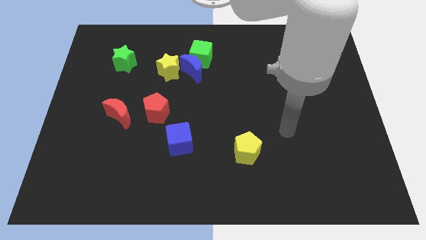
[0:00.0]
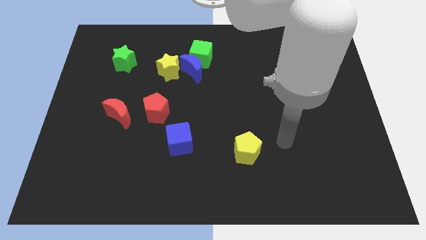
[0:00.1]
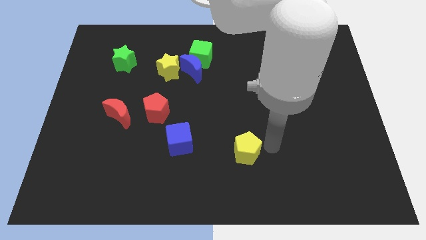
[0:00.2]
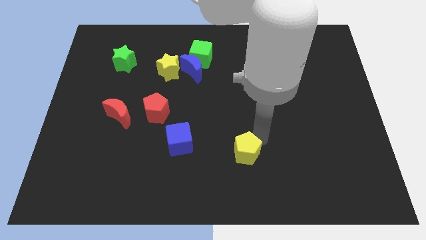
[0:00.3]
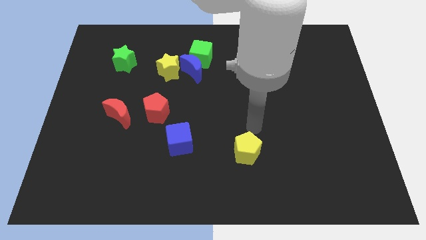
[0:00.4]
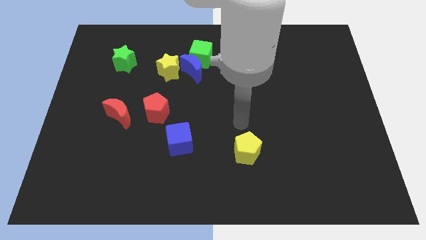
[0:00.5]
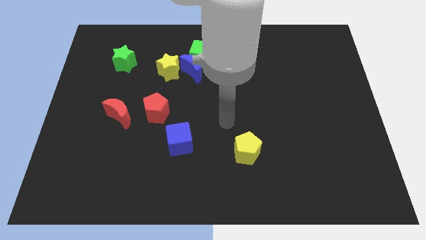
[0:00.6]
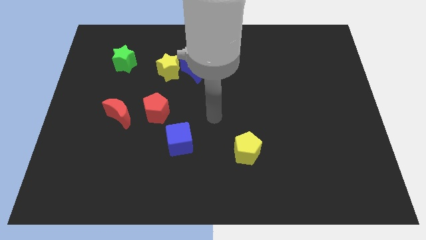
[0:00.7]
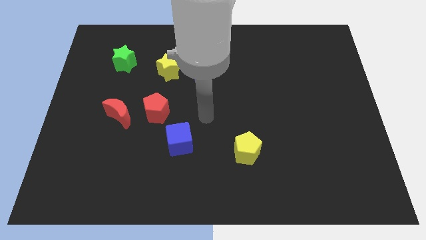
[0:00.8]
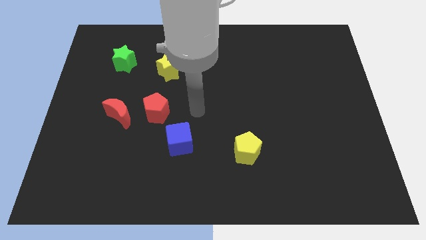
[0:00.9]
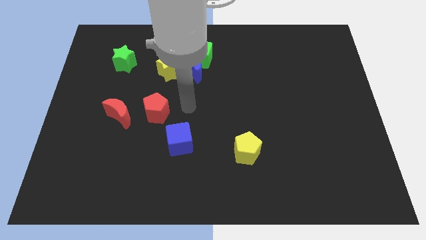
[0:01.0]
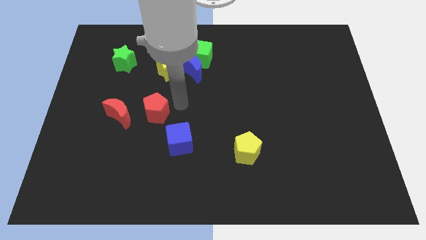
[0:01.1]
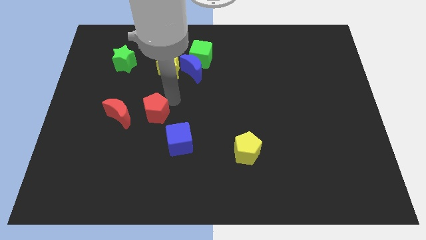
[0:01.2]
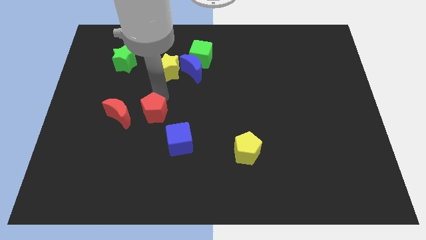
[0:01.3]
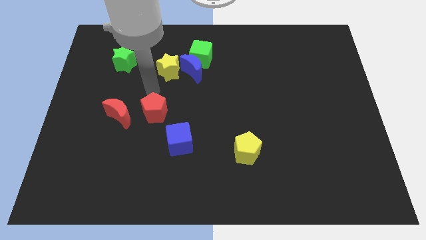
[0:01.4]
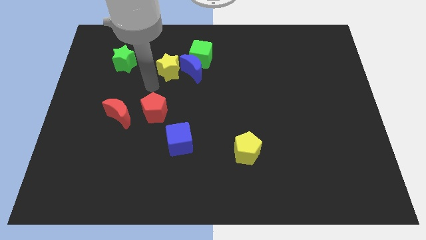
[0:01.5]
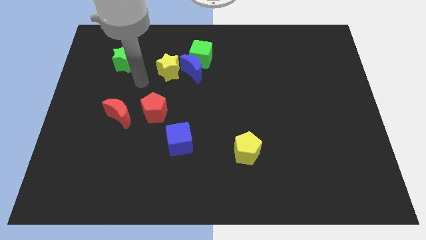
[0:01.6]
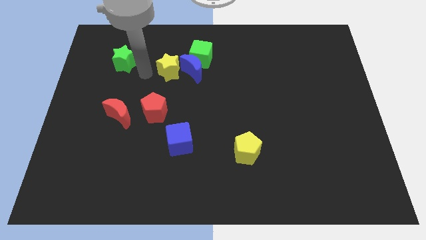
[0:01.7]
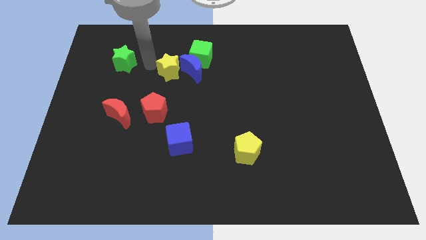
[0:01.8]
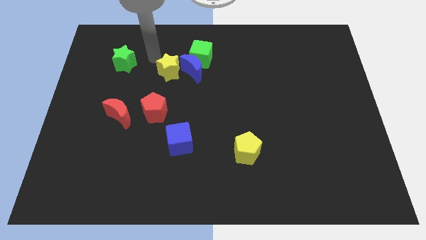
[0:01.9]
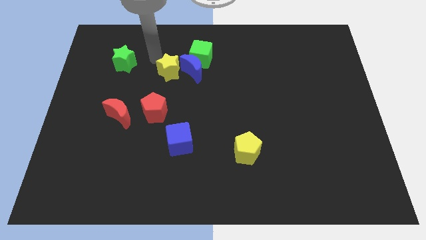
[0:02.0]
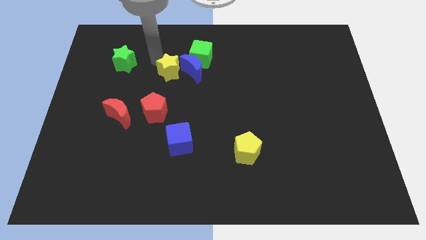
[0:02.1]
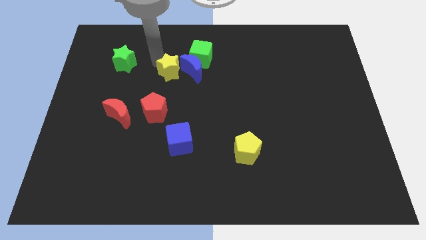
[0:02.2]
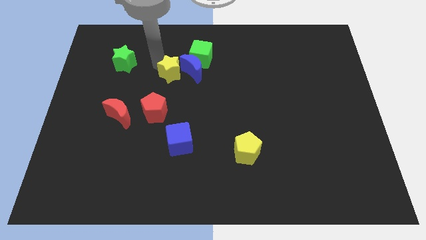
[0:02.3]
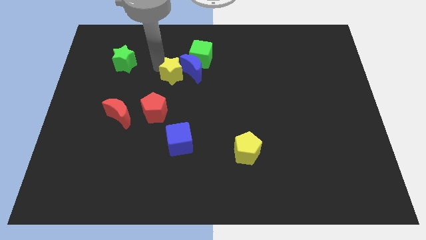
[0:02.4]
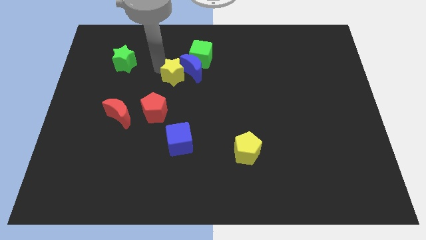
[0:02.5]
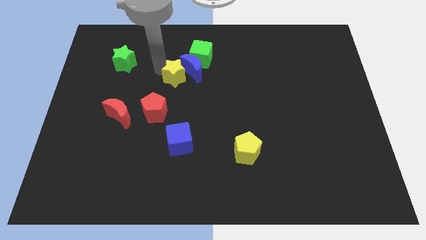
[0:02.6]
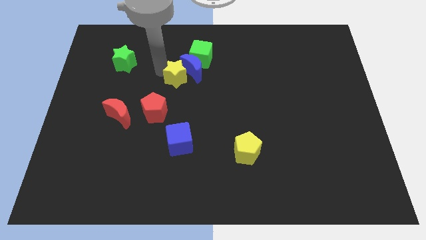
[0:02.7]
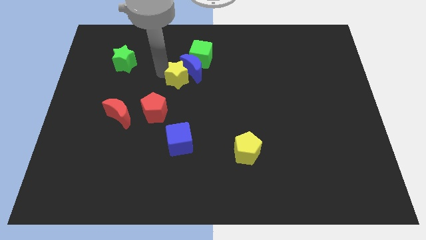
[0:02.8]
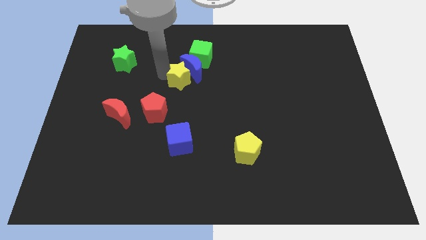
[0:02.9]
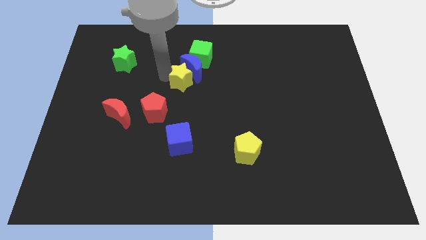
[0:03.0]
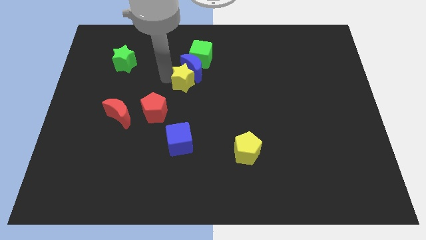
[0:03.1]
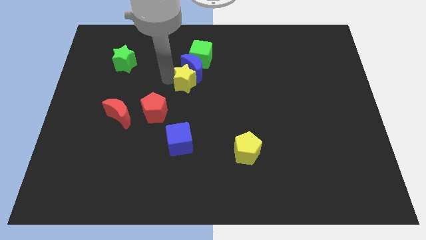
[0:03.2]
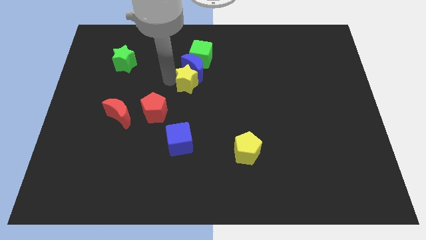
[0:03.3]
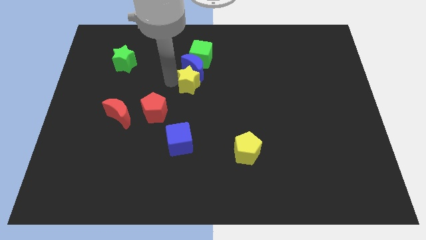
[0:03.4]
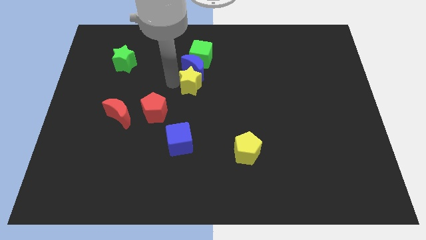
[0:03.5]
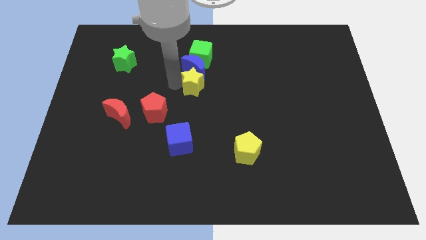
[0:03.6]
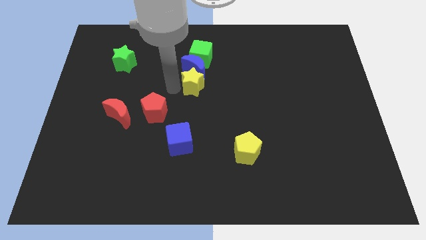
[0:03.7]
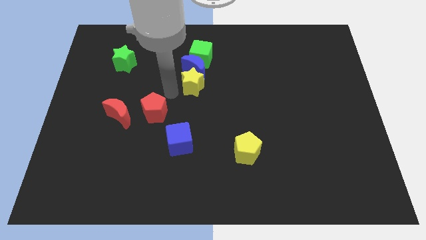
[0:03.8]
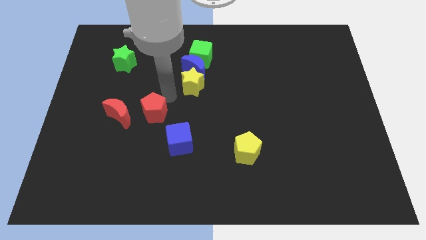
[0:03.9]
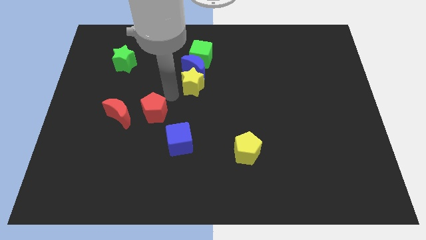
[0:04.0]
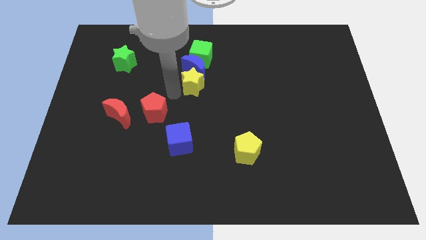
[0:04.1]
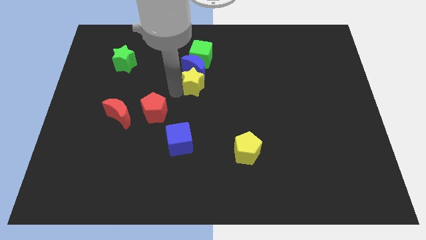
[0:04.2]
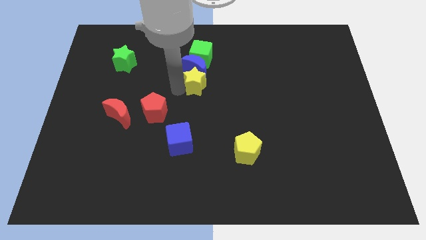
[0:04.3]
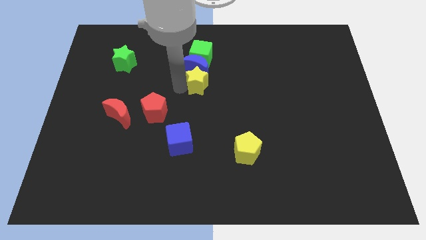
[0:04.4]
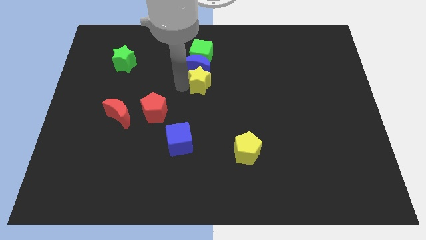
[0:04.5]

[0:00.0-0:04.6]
slide the yellow star slightly to the right

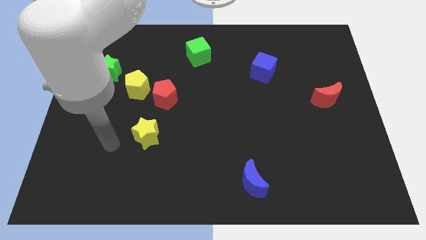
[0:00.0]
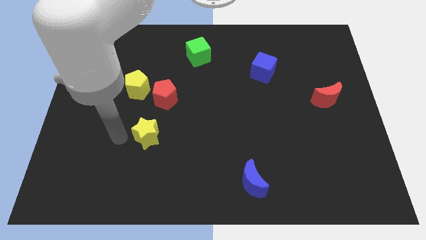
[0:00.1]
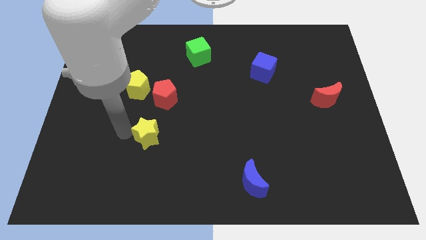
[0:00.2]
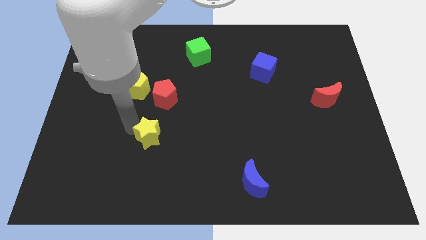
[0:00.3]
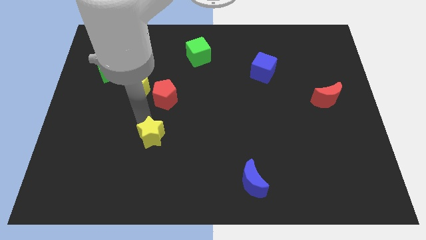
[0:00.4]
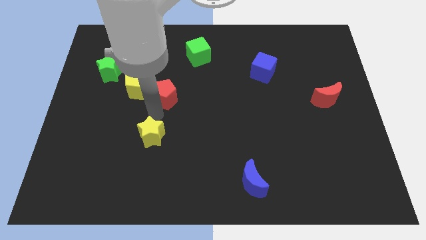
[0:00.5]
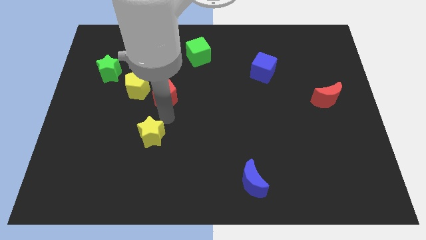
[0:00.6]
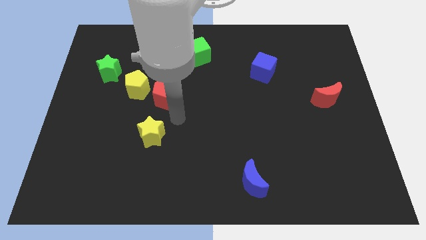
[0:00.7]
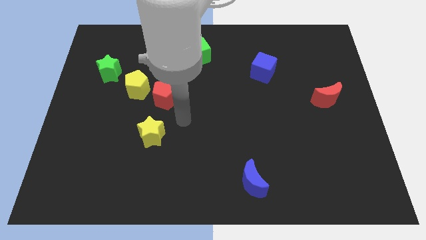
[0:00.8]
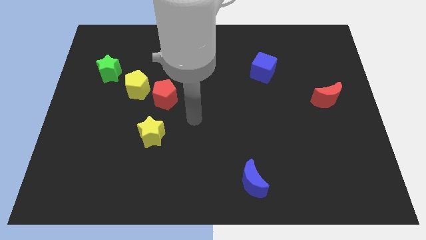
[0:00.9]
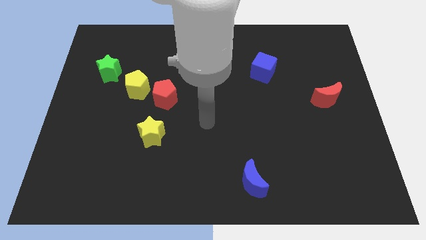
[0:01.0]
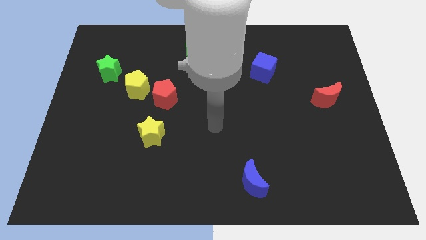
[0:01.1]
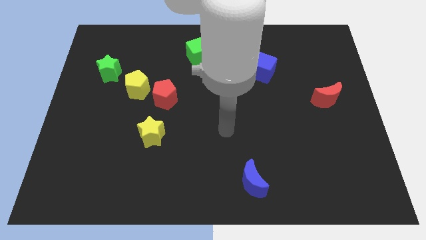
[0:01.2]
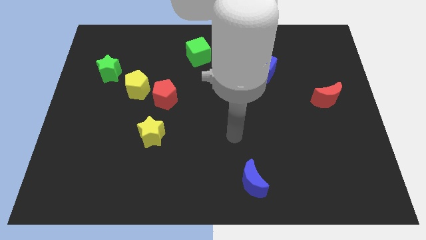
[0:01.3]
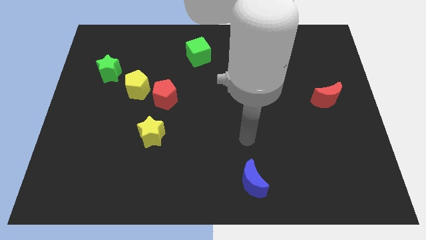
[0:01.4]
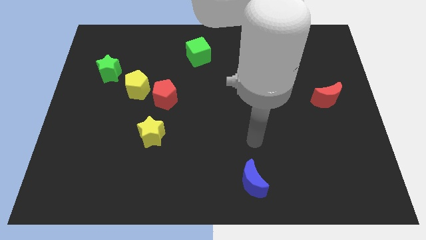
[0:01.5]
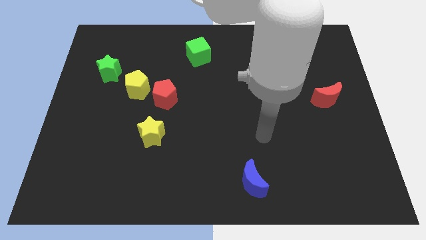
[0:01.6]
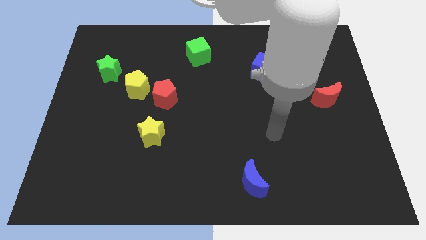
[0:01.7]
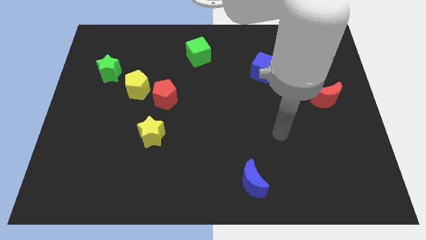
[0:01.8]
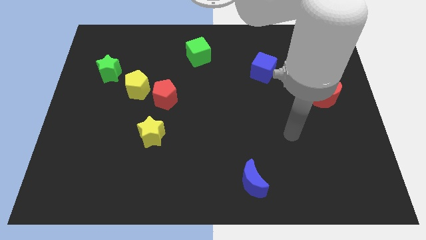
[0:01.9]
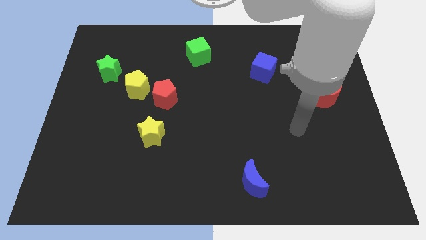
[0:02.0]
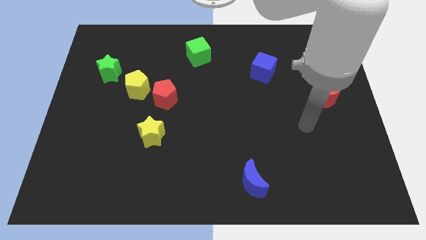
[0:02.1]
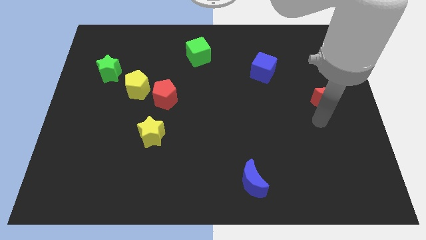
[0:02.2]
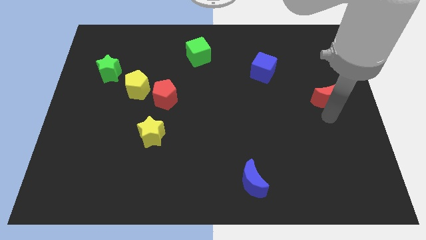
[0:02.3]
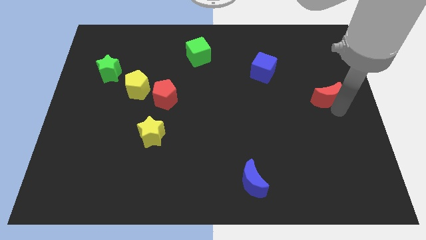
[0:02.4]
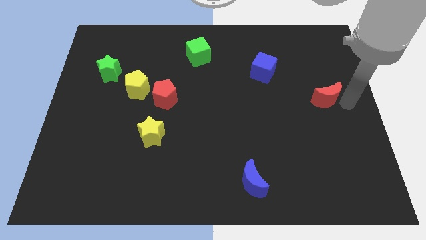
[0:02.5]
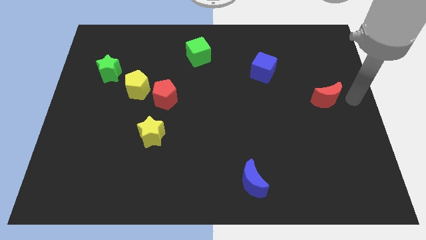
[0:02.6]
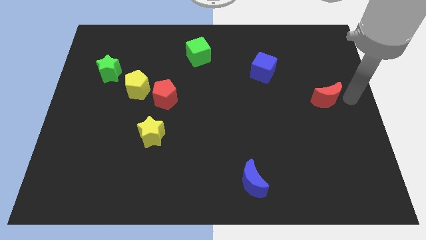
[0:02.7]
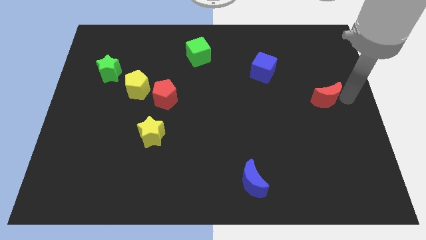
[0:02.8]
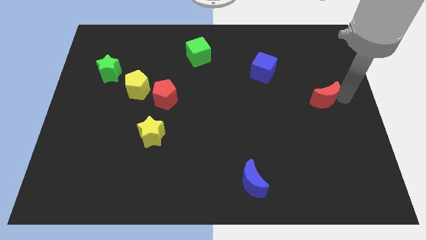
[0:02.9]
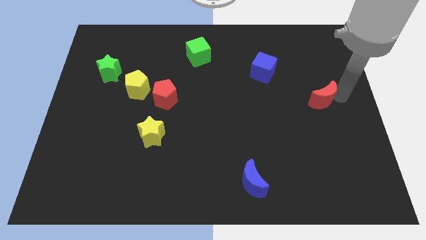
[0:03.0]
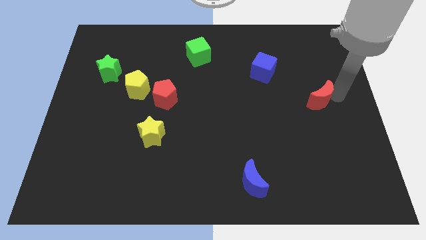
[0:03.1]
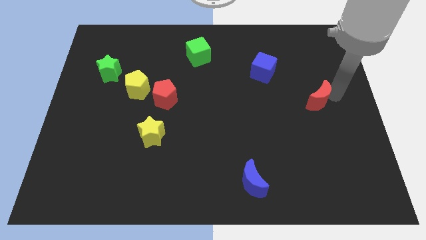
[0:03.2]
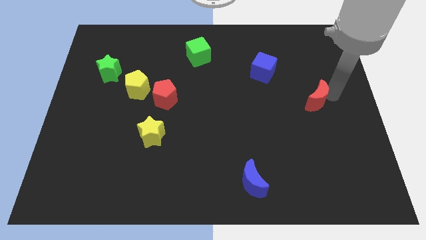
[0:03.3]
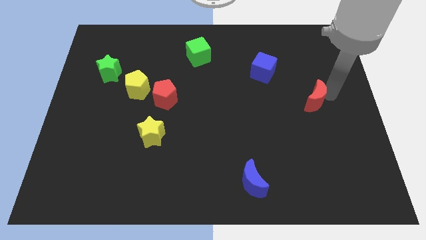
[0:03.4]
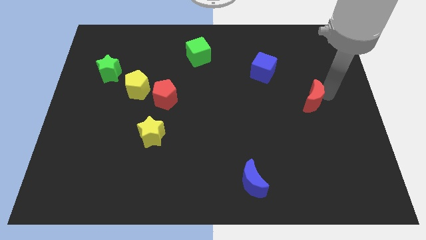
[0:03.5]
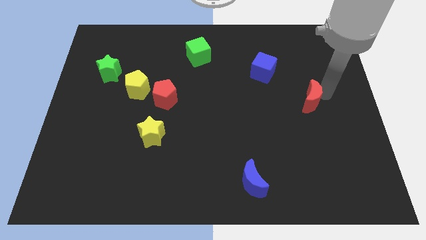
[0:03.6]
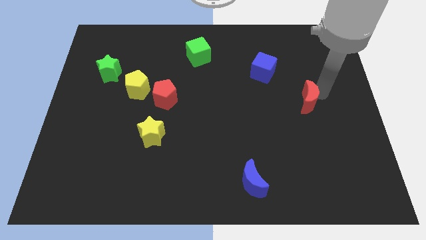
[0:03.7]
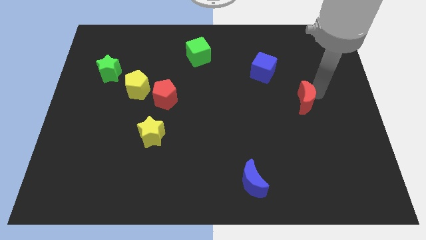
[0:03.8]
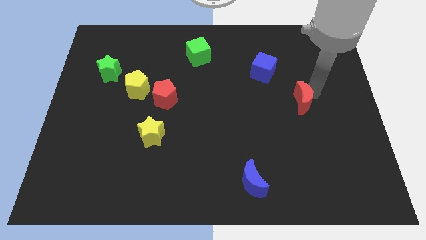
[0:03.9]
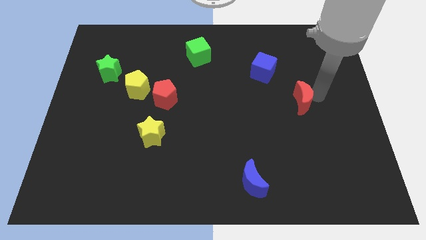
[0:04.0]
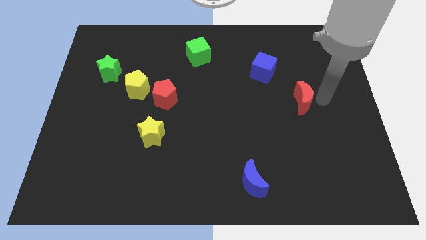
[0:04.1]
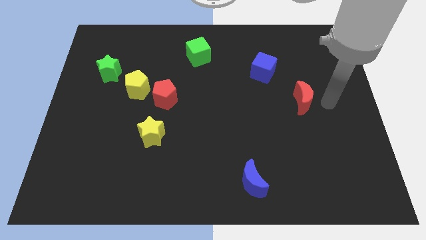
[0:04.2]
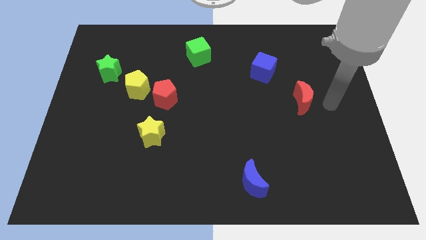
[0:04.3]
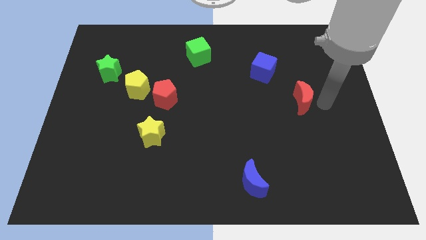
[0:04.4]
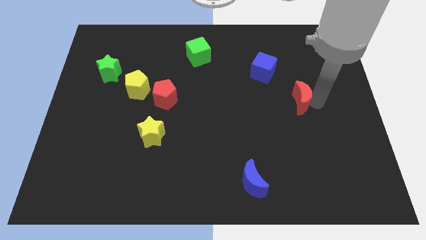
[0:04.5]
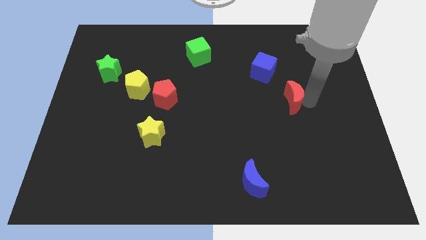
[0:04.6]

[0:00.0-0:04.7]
slightly push the red moon to the left
